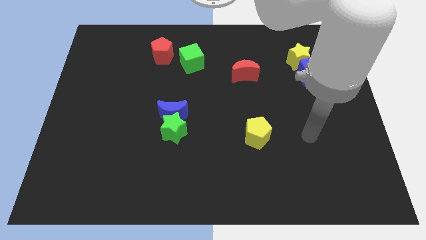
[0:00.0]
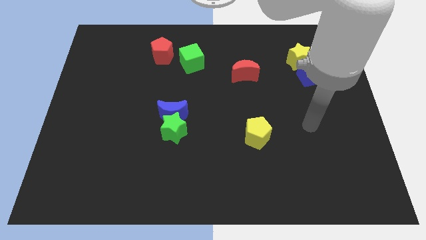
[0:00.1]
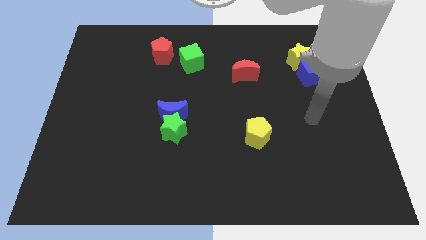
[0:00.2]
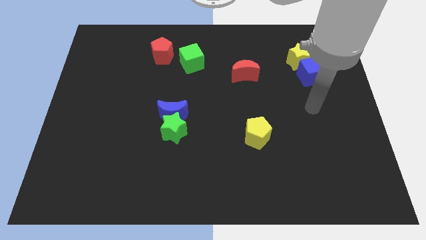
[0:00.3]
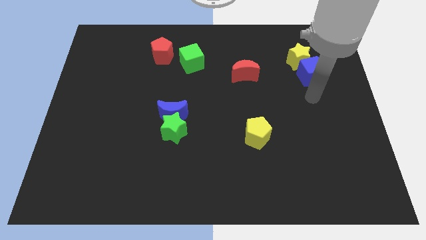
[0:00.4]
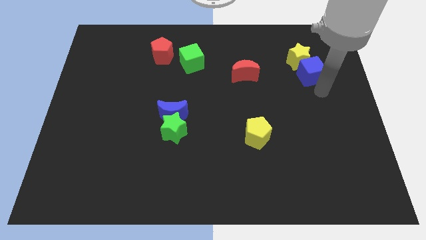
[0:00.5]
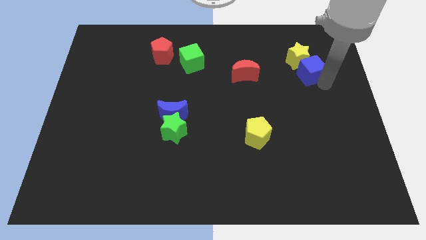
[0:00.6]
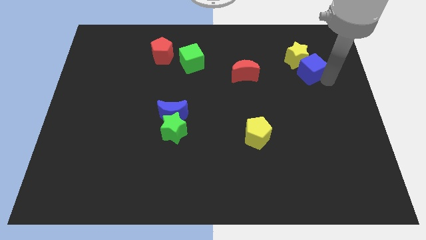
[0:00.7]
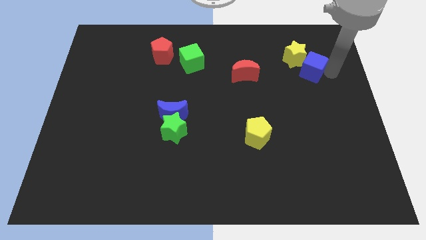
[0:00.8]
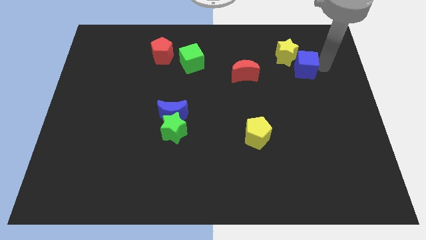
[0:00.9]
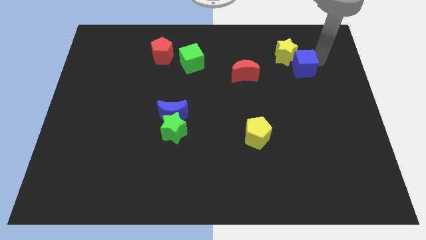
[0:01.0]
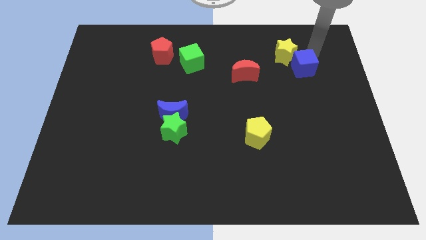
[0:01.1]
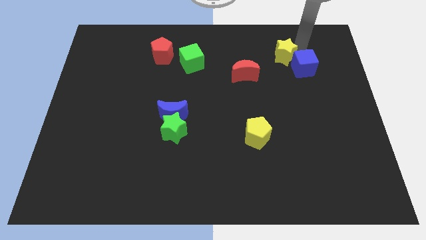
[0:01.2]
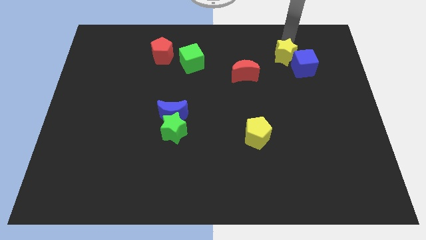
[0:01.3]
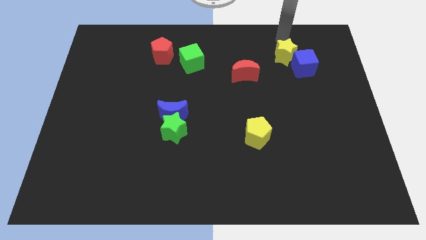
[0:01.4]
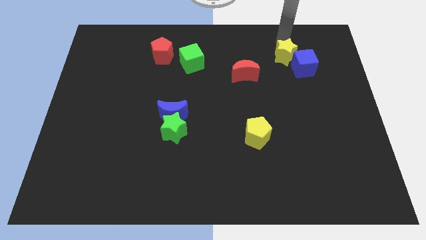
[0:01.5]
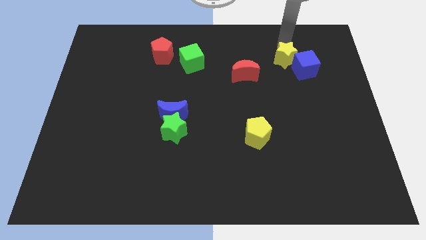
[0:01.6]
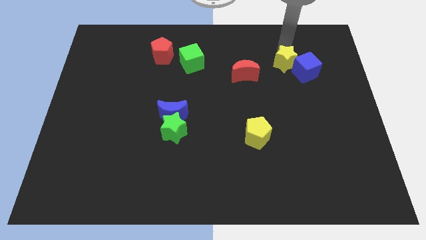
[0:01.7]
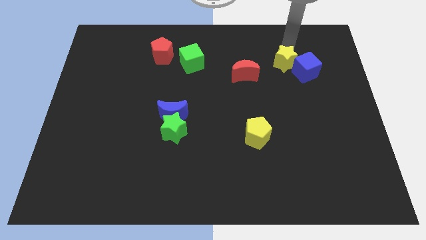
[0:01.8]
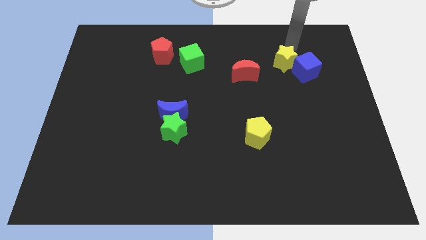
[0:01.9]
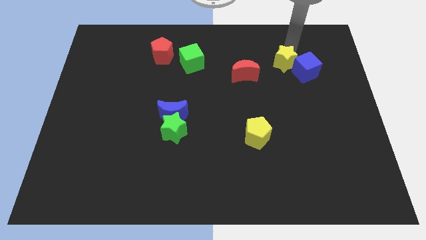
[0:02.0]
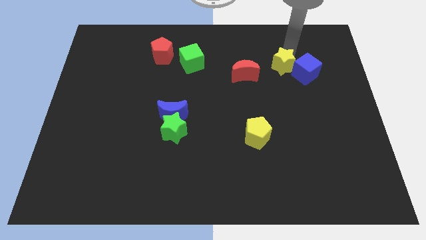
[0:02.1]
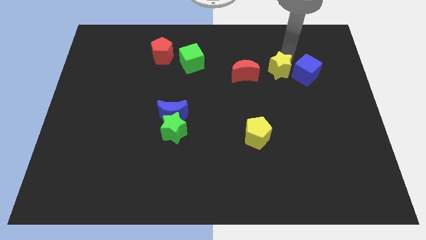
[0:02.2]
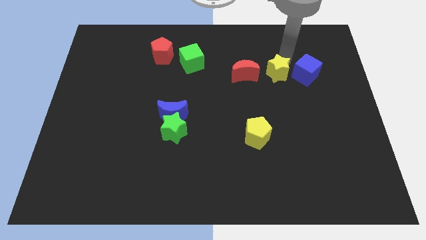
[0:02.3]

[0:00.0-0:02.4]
slide the yellow star downwards and then left a bit

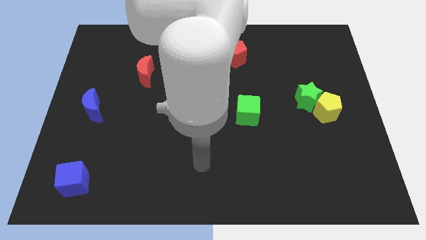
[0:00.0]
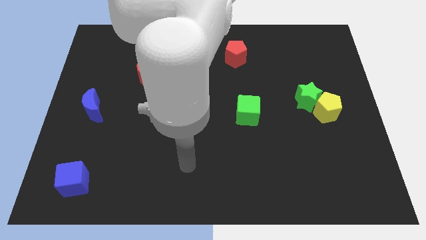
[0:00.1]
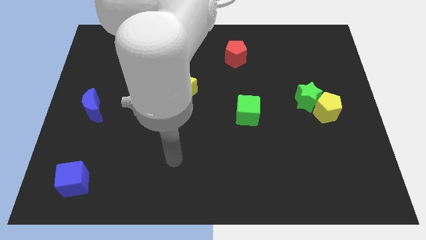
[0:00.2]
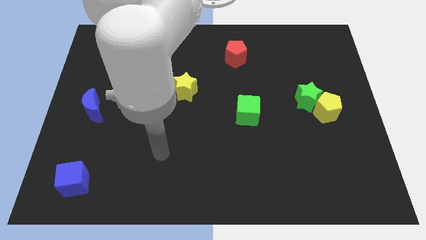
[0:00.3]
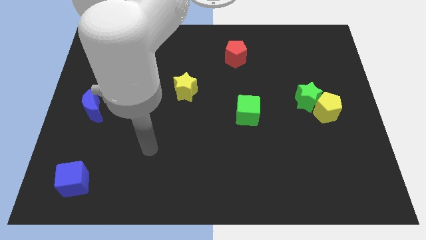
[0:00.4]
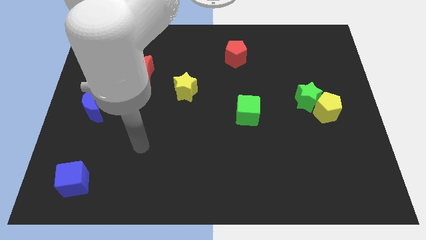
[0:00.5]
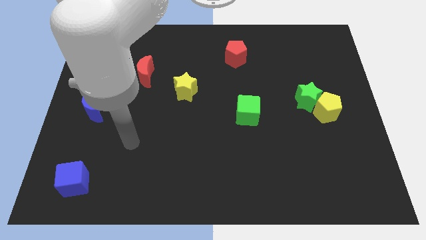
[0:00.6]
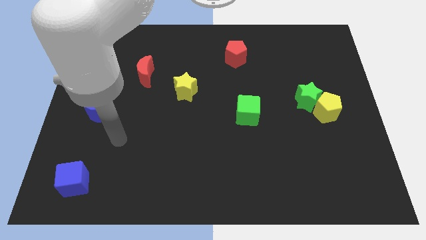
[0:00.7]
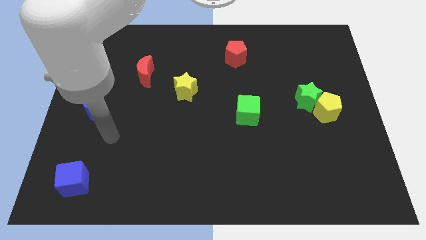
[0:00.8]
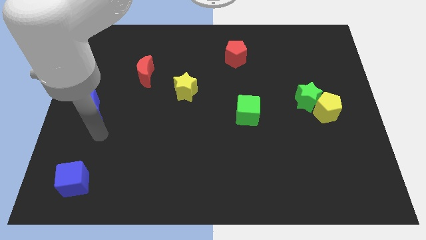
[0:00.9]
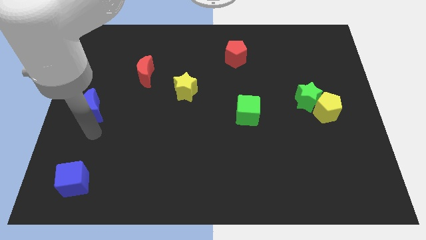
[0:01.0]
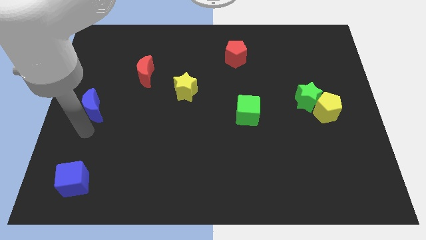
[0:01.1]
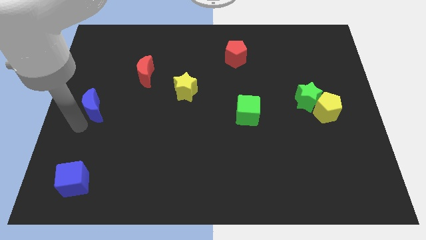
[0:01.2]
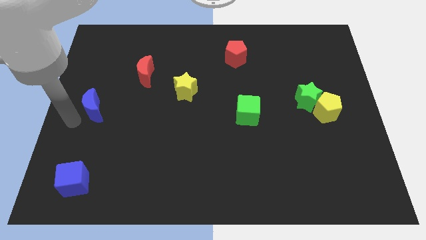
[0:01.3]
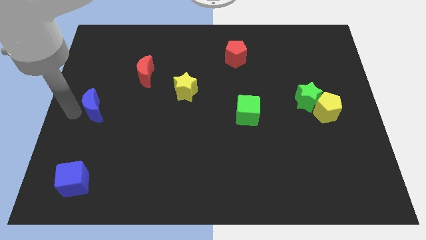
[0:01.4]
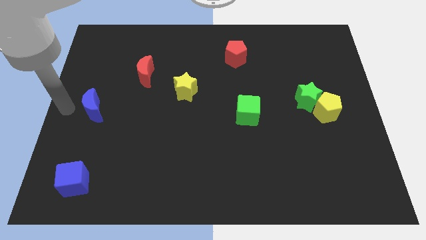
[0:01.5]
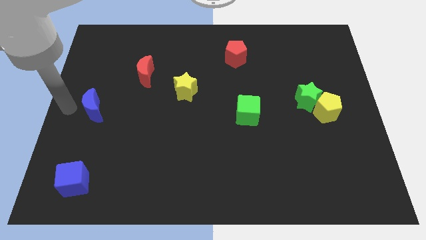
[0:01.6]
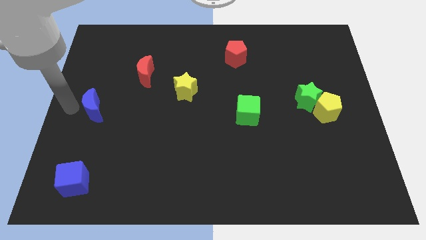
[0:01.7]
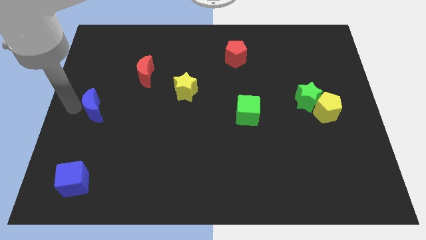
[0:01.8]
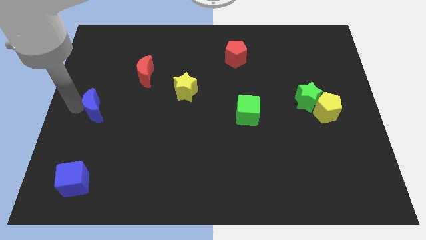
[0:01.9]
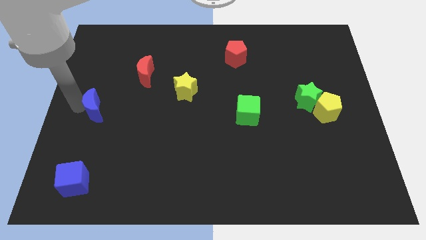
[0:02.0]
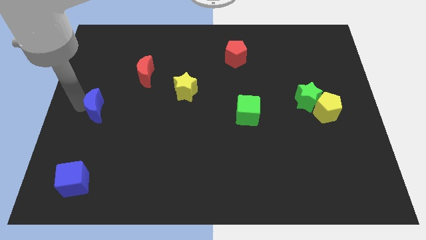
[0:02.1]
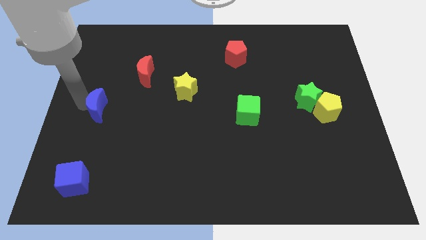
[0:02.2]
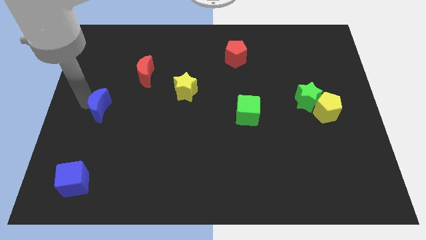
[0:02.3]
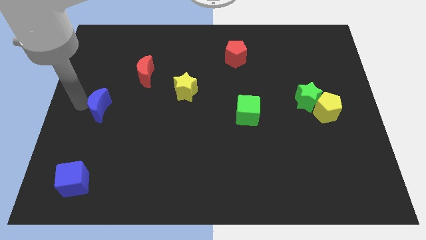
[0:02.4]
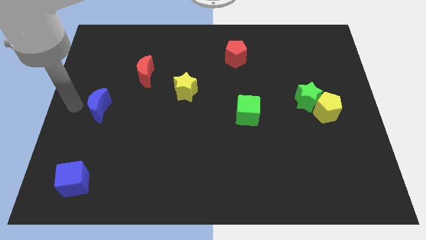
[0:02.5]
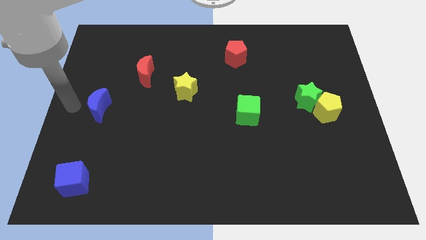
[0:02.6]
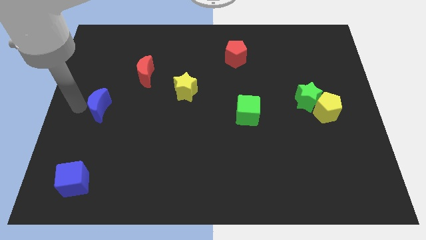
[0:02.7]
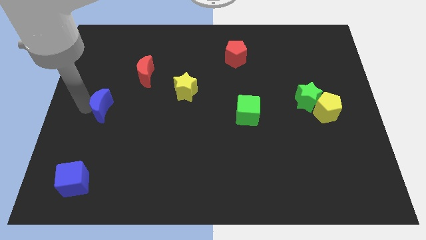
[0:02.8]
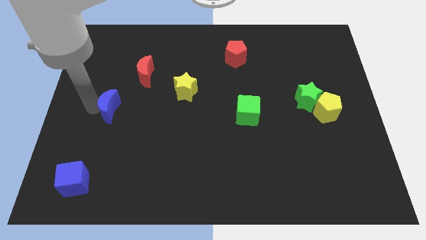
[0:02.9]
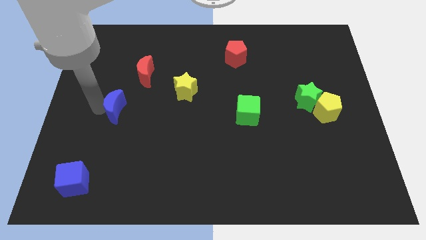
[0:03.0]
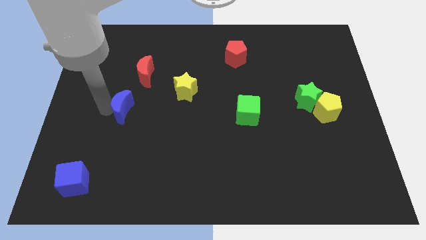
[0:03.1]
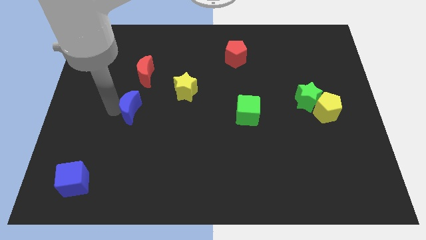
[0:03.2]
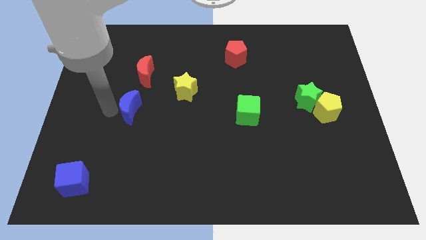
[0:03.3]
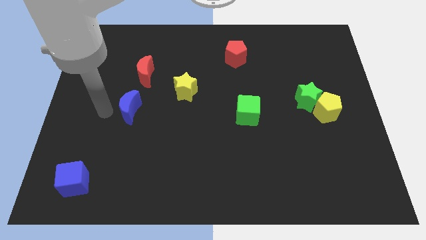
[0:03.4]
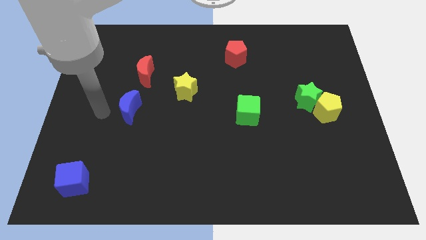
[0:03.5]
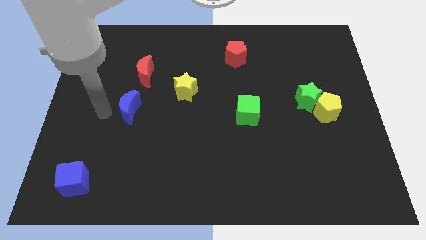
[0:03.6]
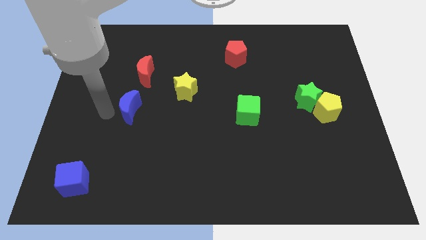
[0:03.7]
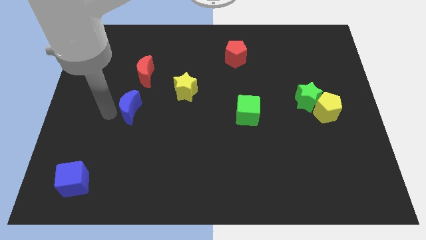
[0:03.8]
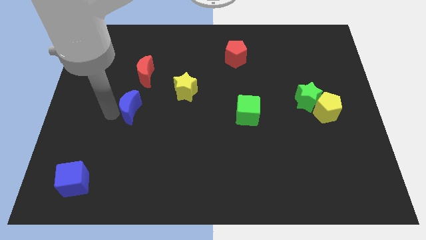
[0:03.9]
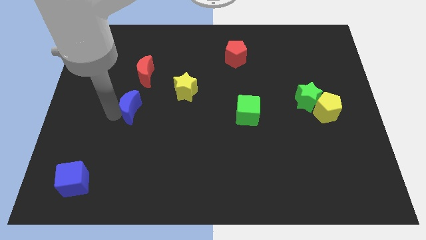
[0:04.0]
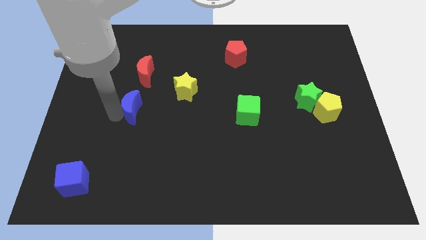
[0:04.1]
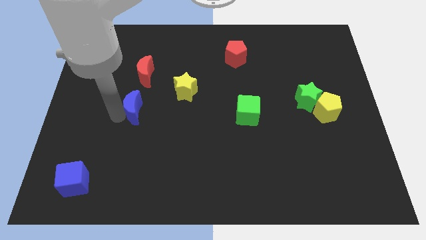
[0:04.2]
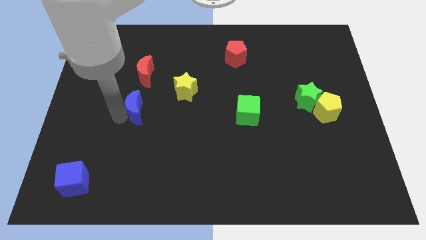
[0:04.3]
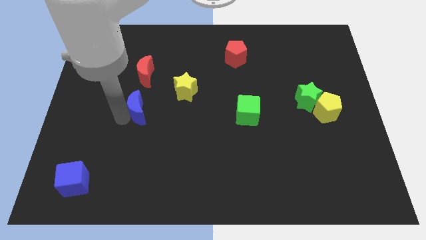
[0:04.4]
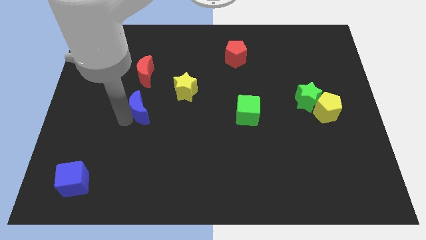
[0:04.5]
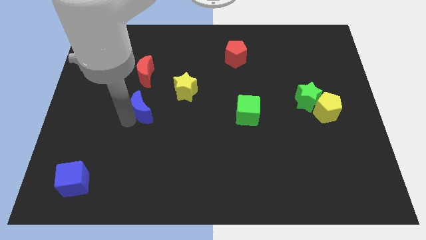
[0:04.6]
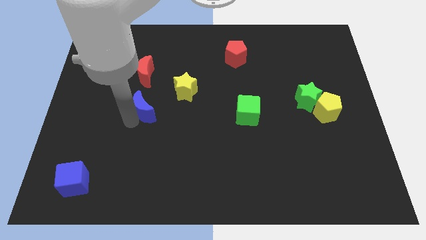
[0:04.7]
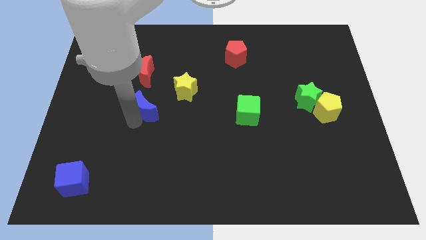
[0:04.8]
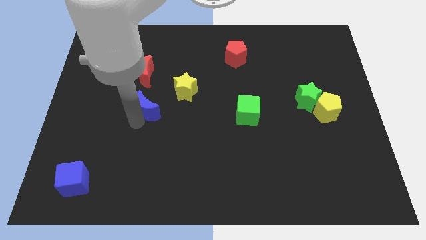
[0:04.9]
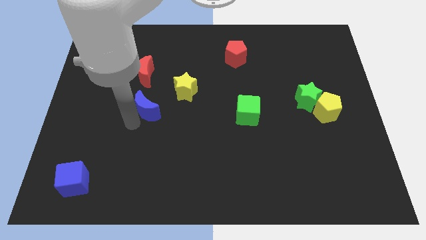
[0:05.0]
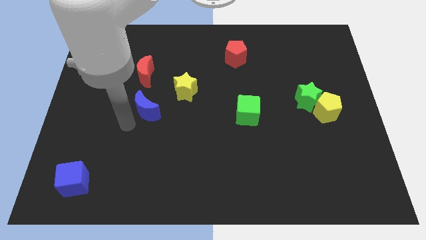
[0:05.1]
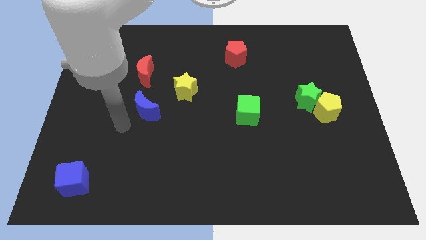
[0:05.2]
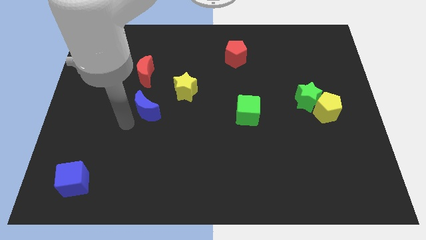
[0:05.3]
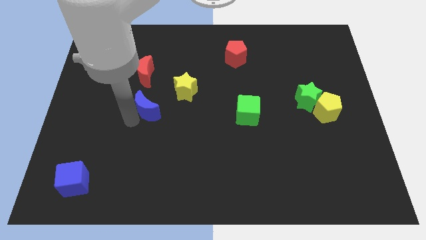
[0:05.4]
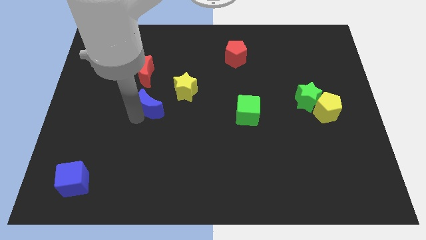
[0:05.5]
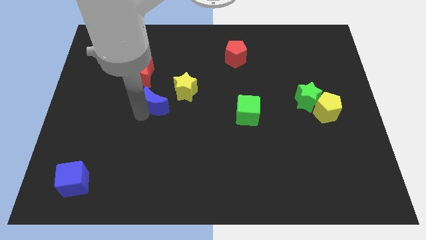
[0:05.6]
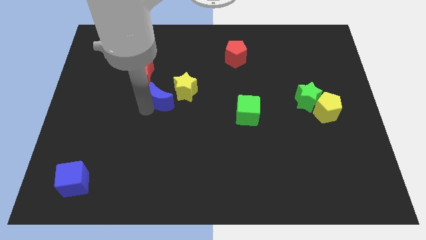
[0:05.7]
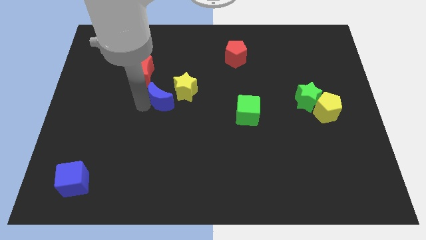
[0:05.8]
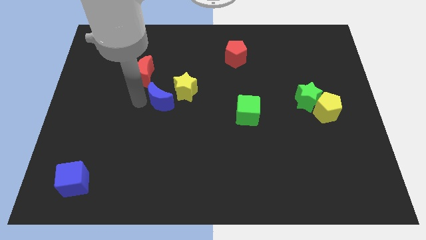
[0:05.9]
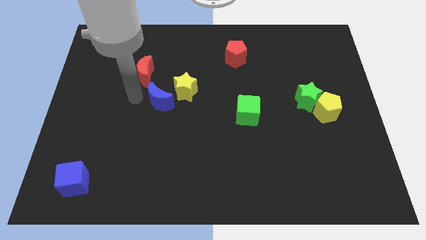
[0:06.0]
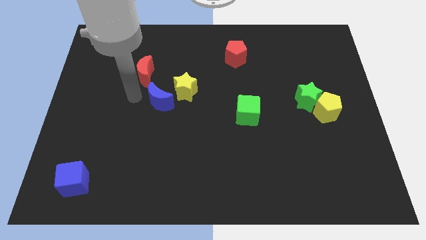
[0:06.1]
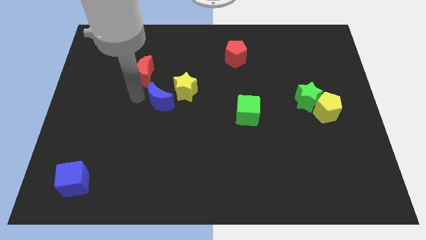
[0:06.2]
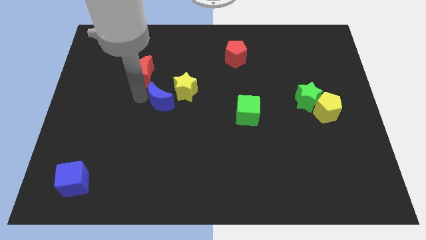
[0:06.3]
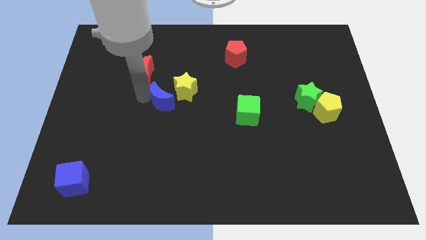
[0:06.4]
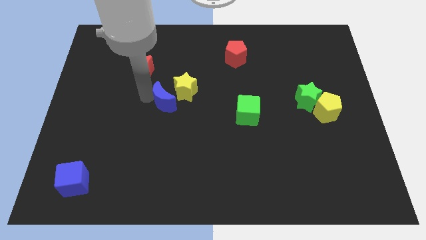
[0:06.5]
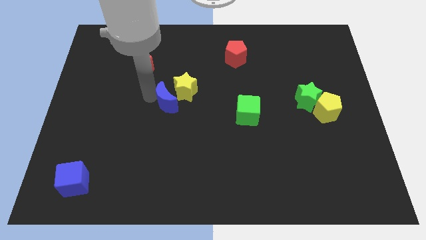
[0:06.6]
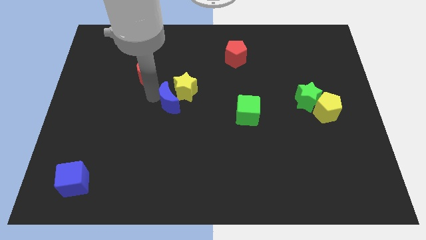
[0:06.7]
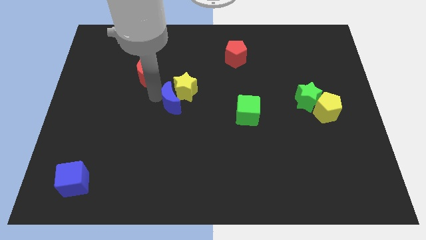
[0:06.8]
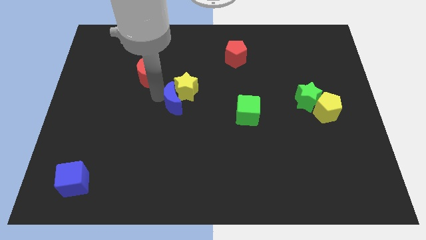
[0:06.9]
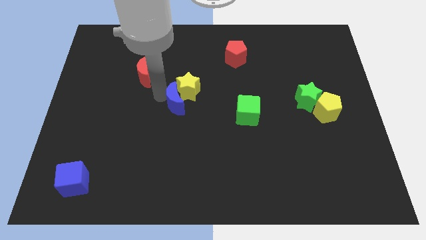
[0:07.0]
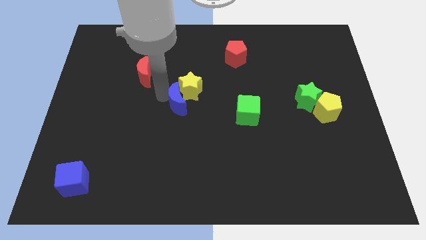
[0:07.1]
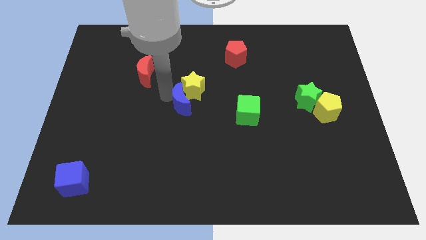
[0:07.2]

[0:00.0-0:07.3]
push the blue moon to the right
